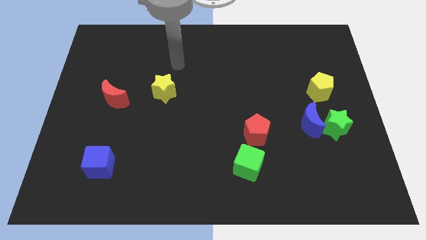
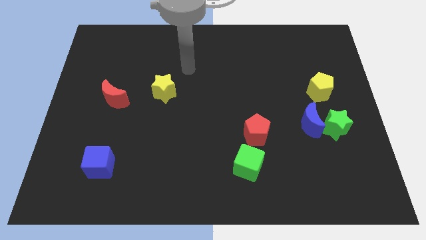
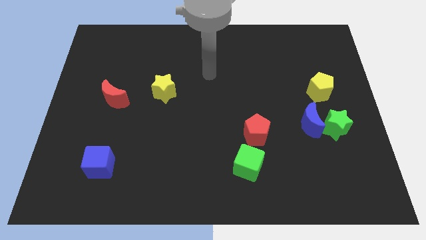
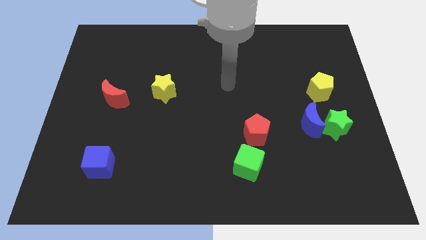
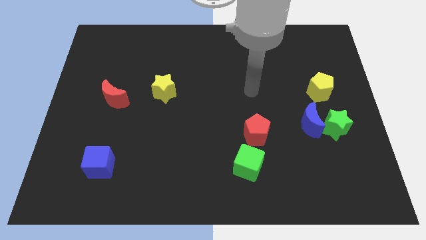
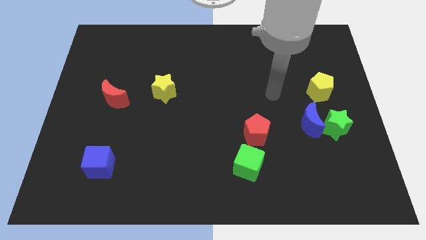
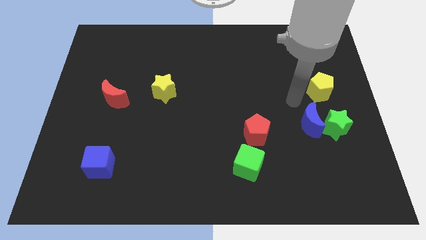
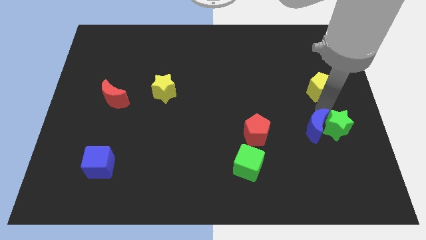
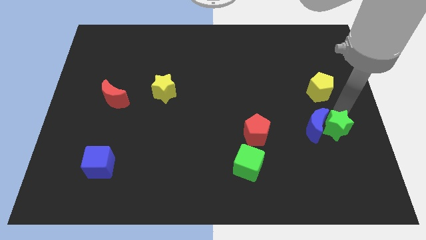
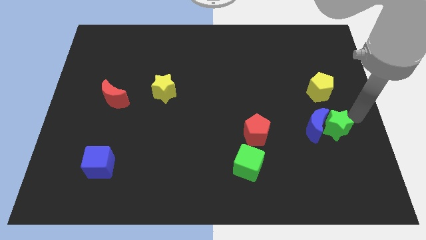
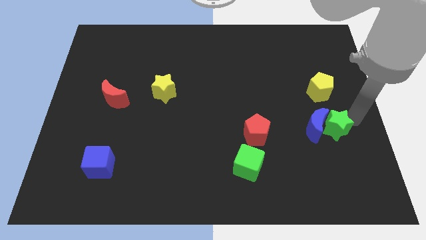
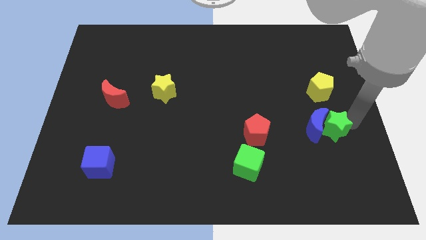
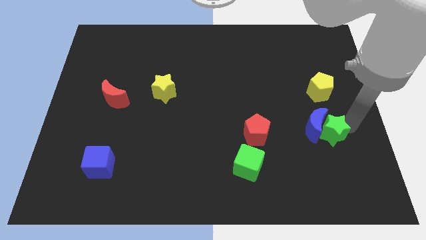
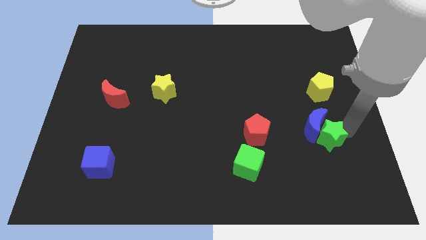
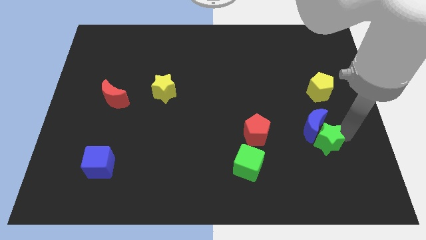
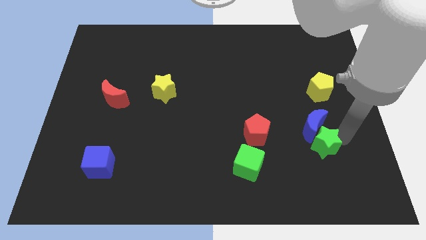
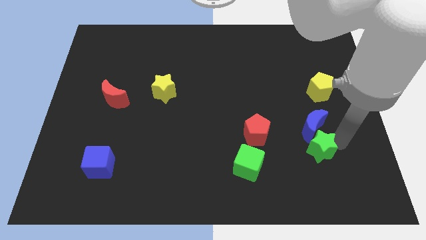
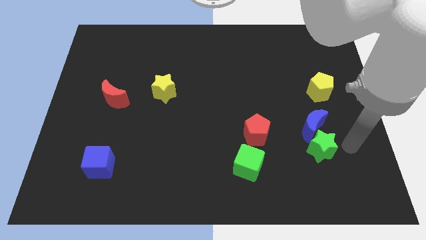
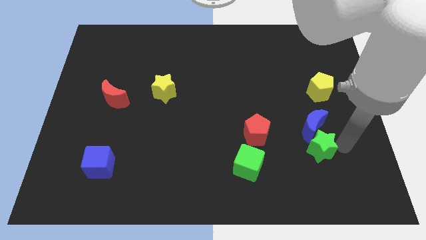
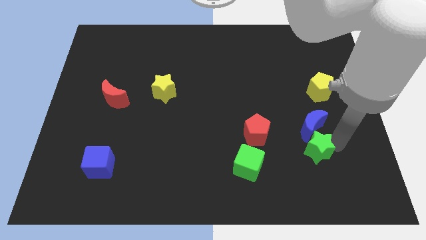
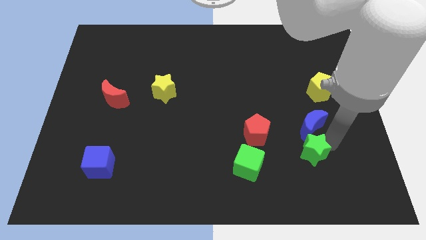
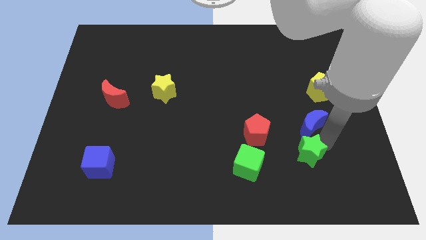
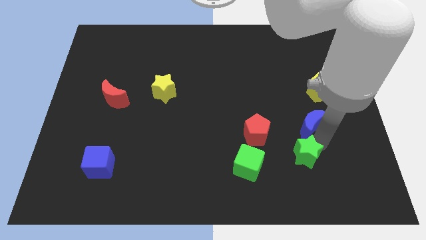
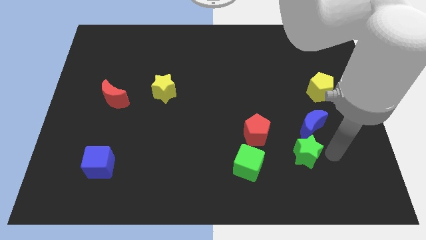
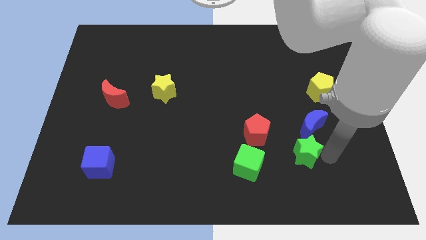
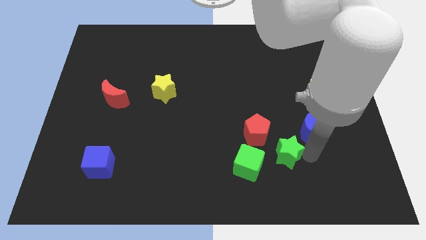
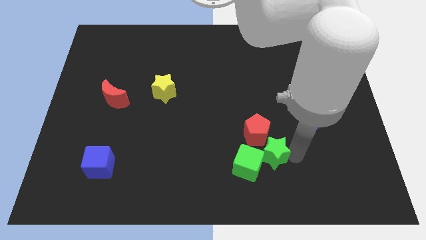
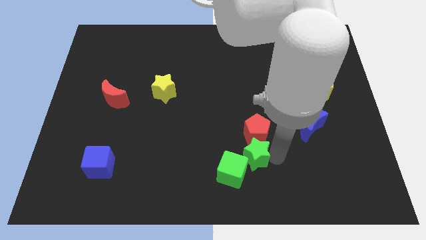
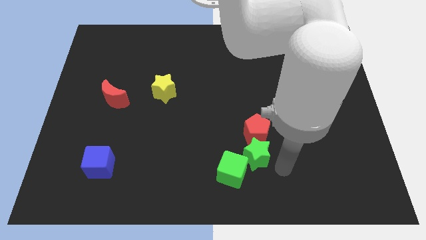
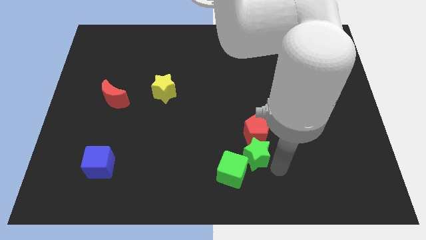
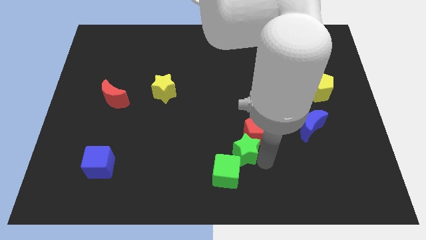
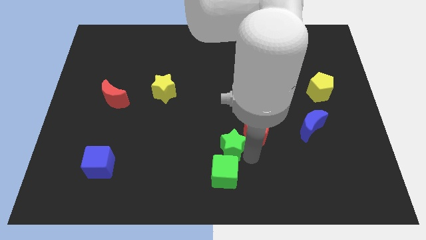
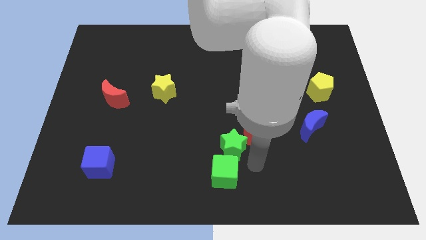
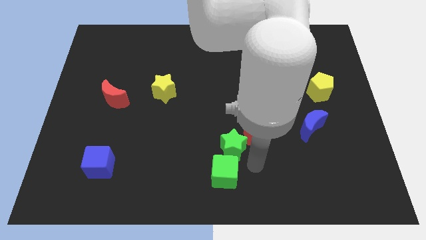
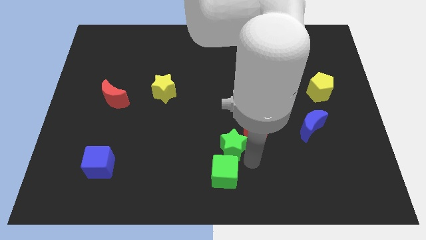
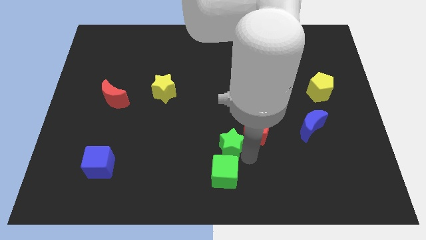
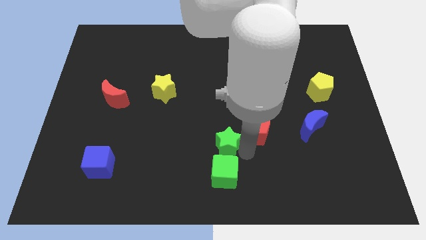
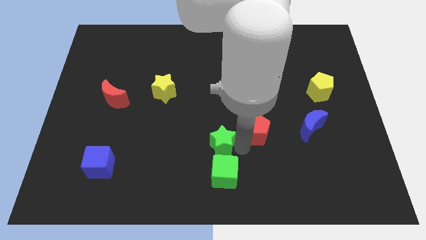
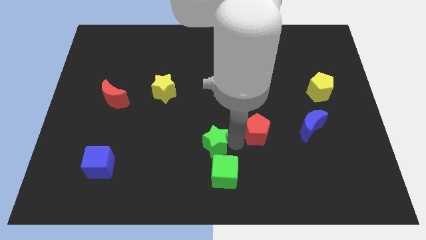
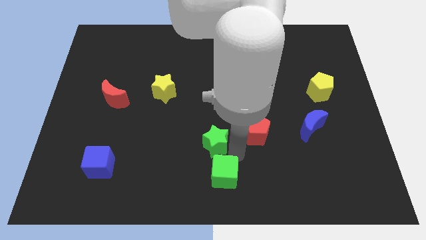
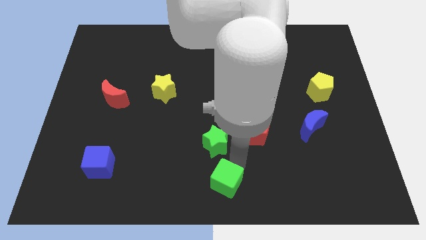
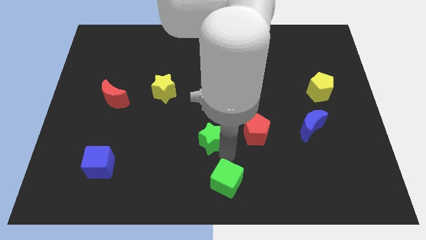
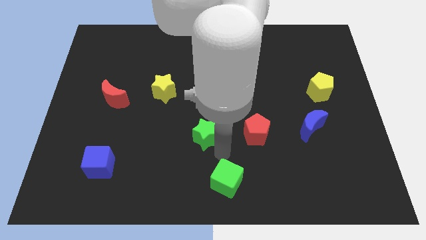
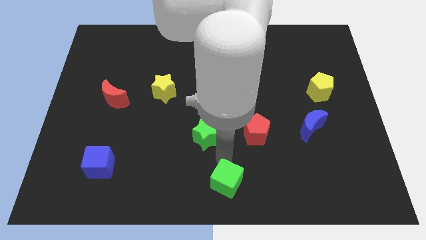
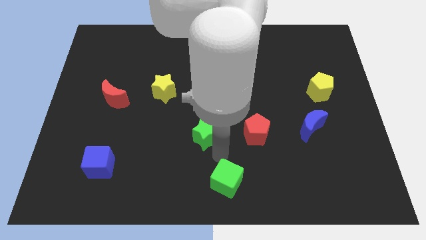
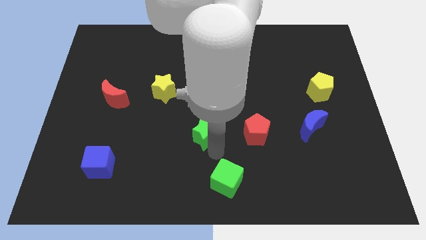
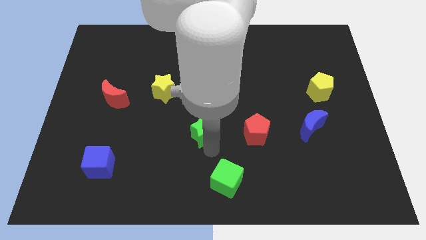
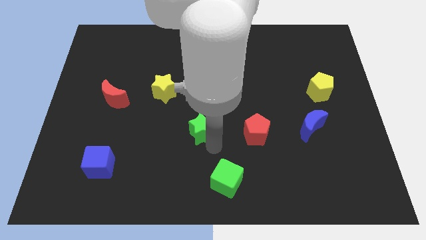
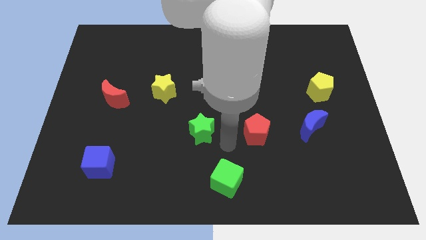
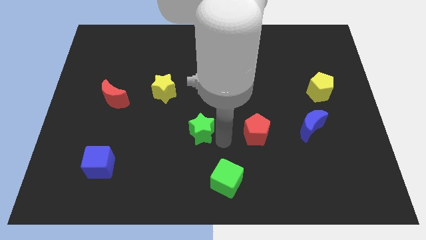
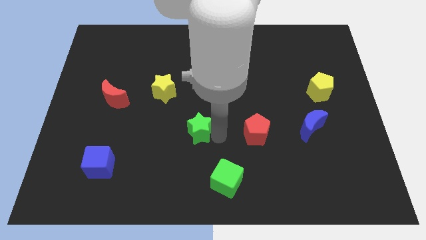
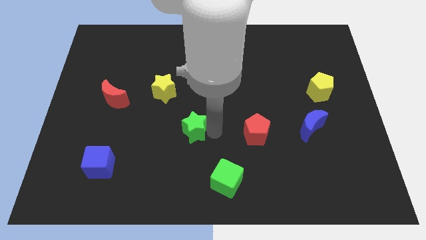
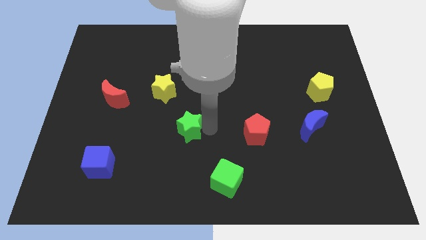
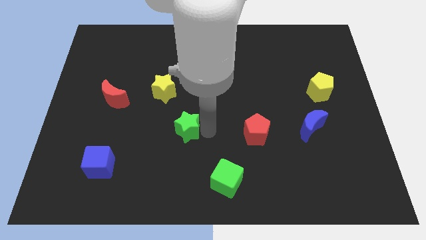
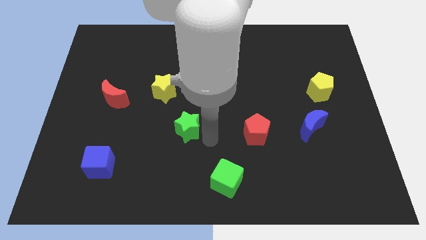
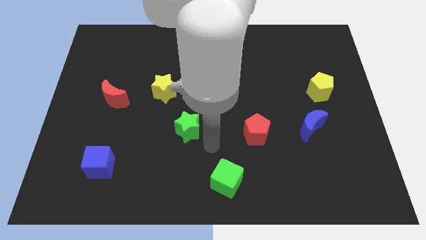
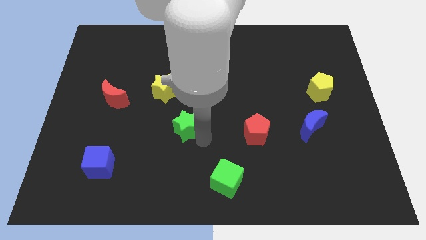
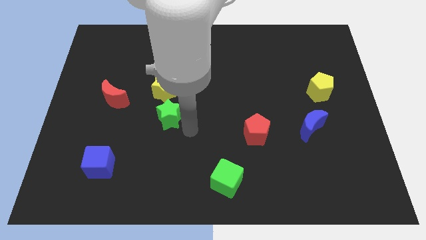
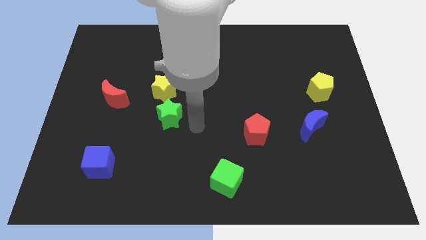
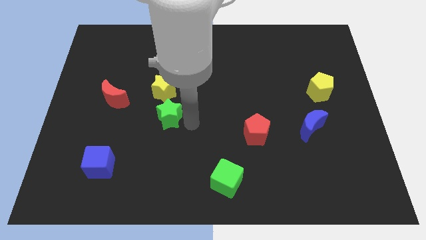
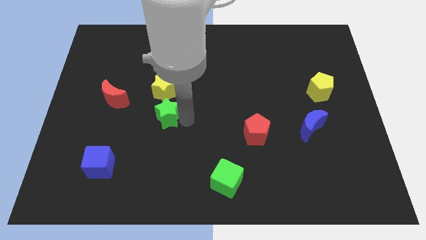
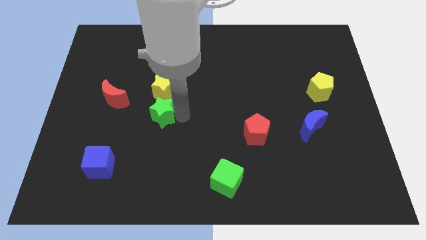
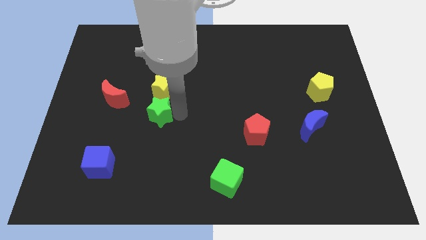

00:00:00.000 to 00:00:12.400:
move the green star diagonally down and to the left of the yellow star

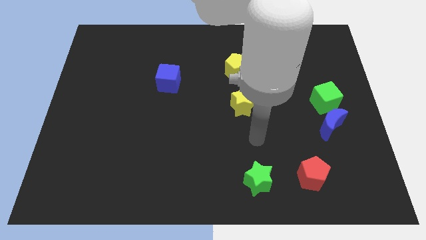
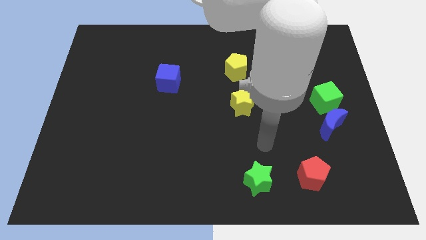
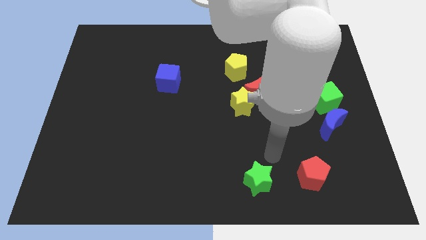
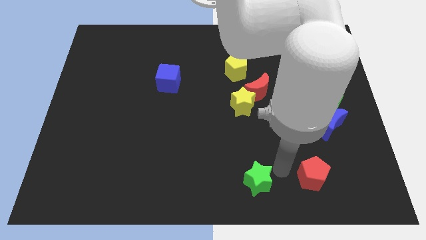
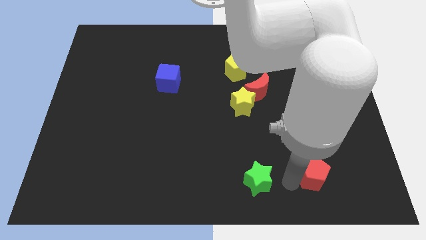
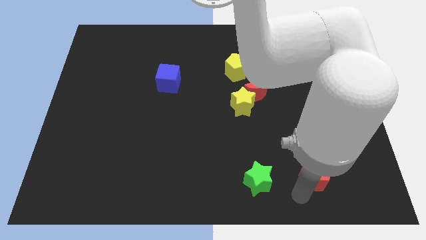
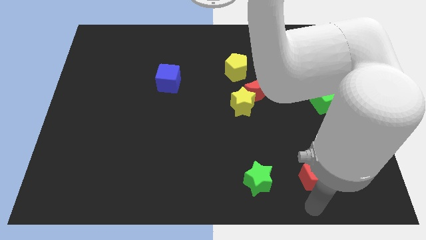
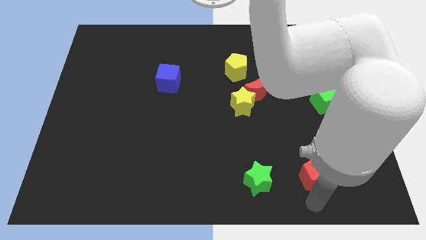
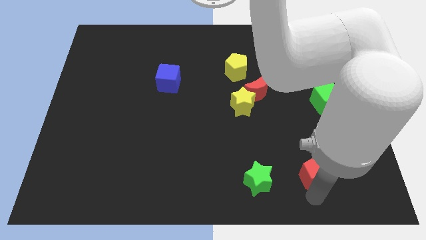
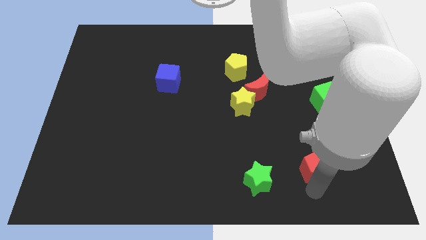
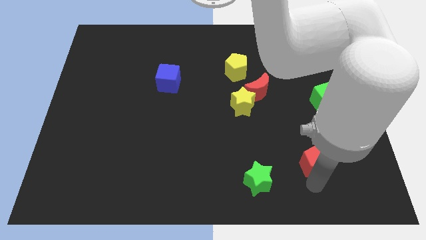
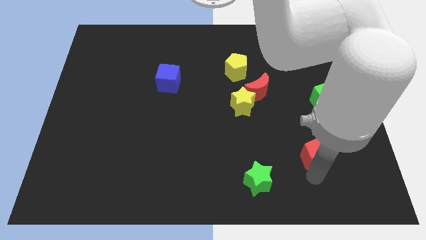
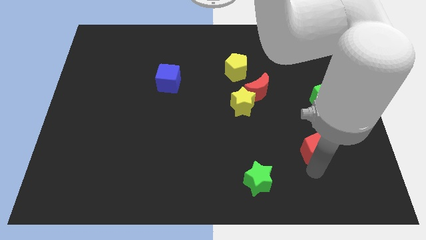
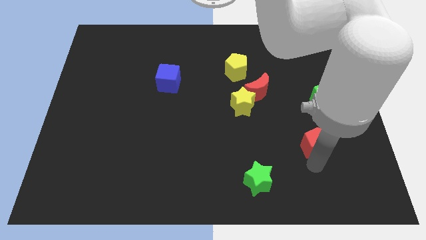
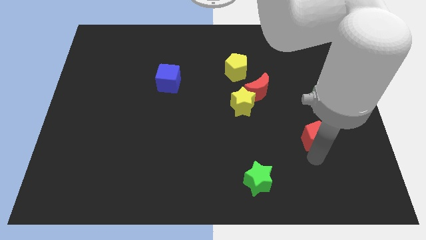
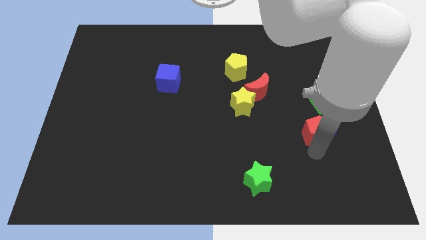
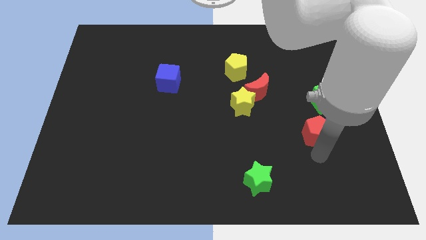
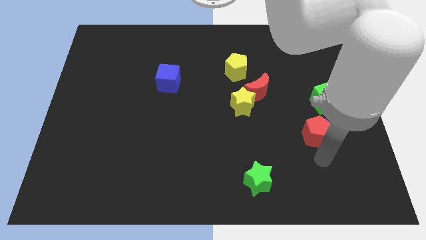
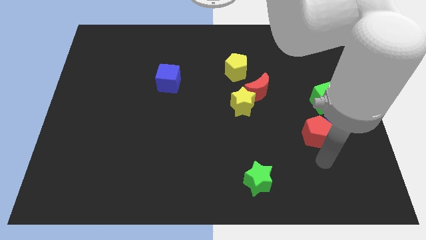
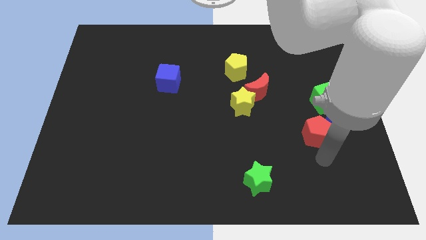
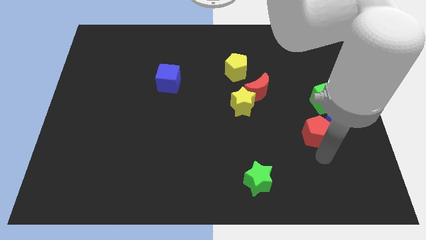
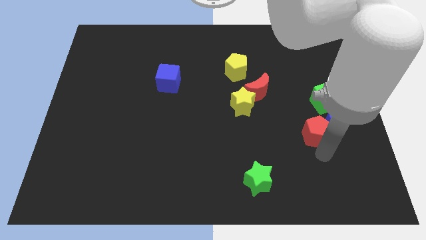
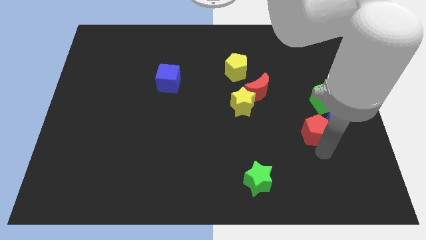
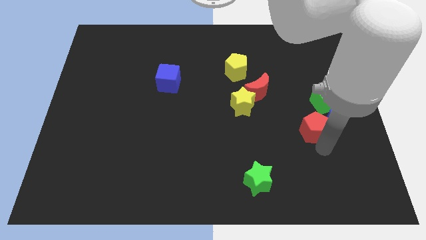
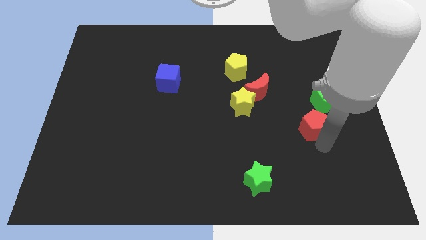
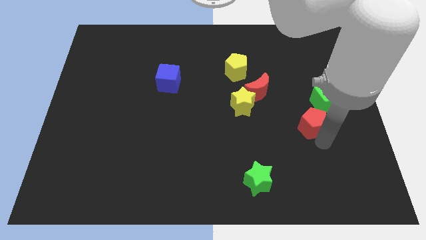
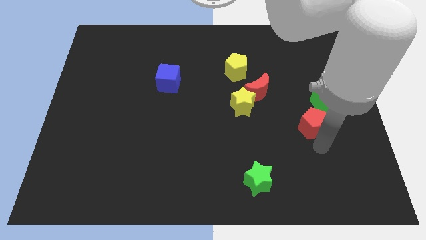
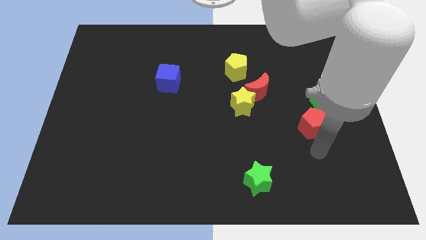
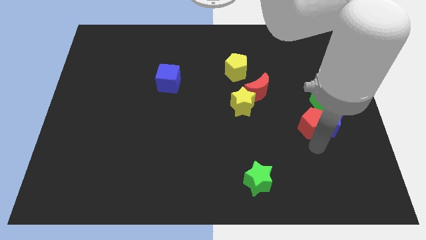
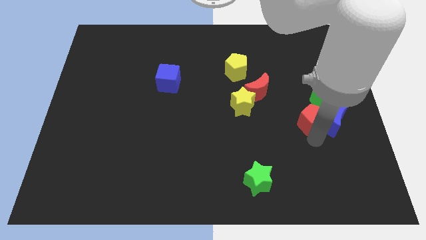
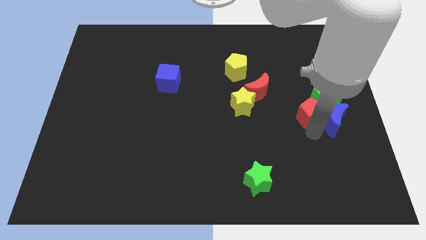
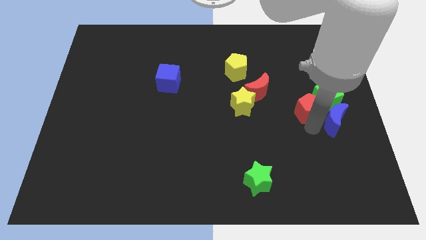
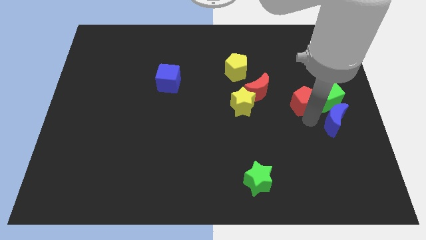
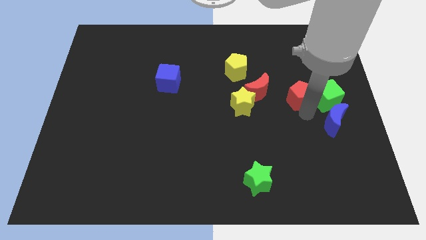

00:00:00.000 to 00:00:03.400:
move the red pentagon diagonally up and to the left of the green cube
